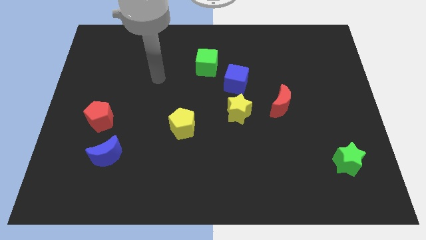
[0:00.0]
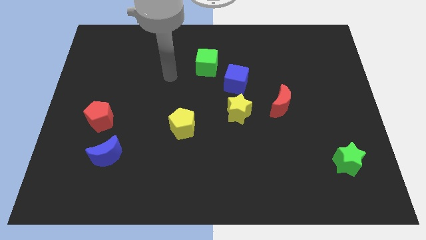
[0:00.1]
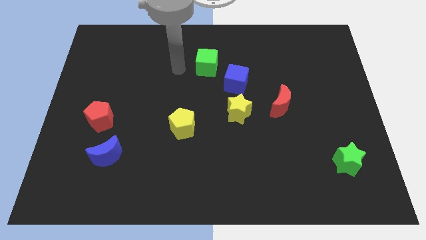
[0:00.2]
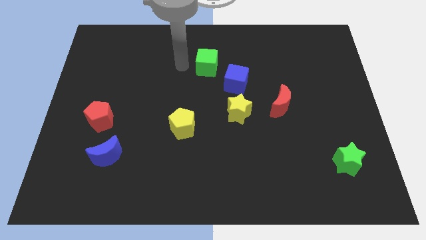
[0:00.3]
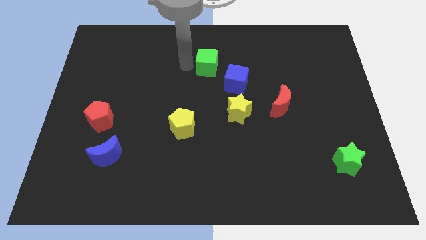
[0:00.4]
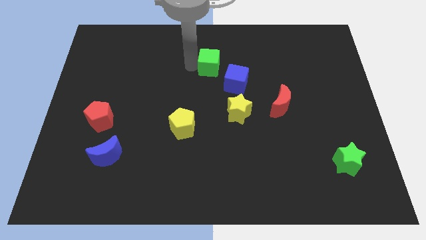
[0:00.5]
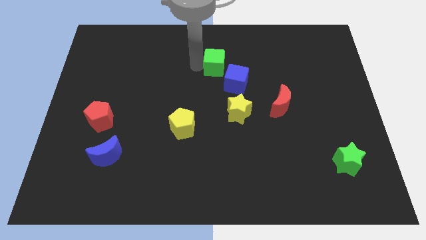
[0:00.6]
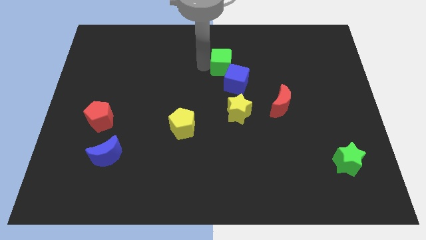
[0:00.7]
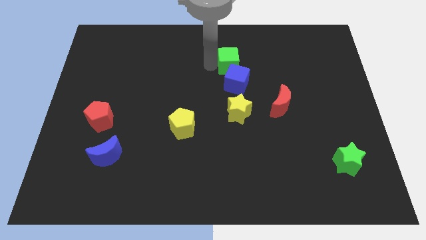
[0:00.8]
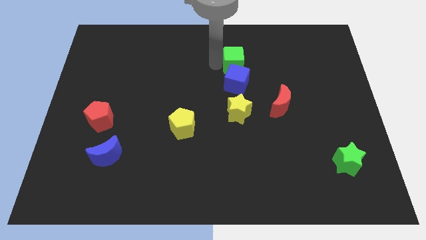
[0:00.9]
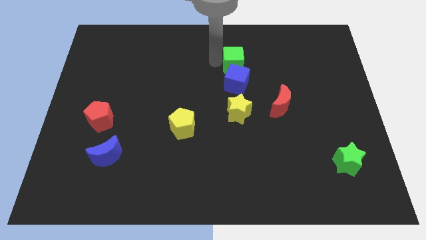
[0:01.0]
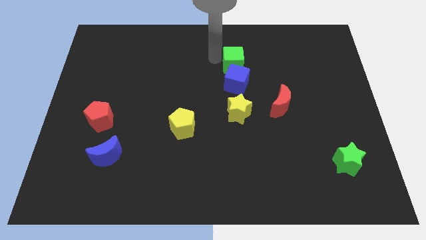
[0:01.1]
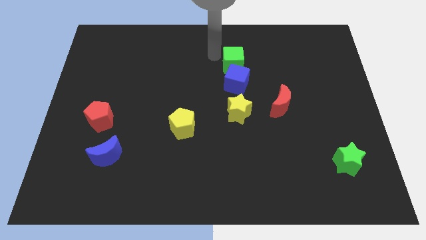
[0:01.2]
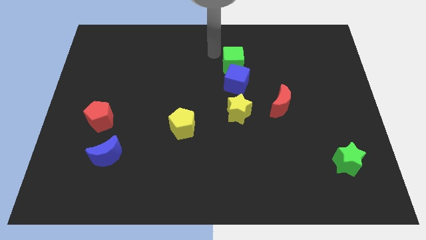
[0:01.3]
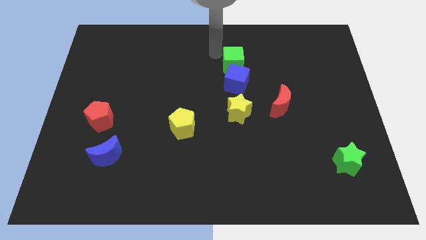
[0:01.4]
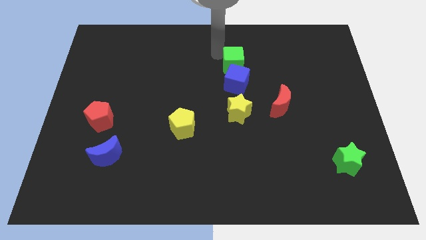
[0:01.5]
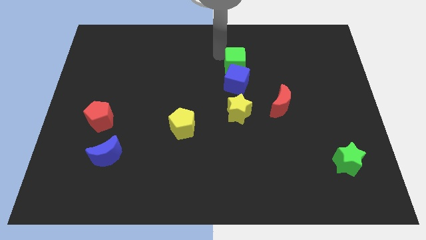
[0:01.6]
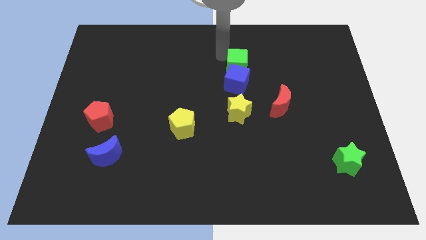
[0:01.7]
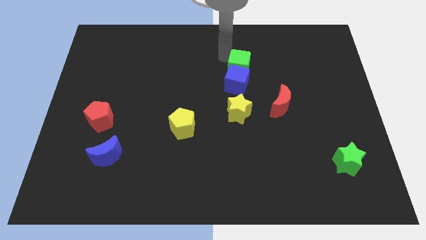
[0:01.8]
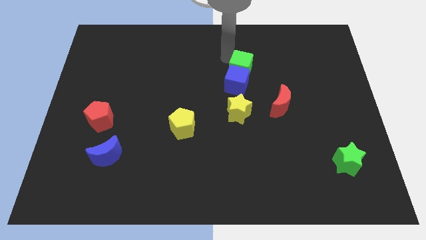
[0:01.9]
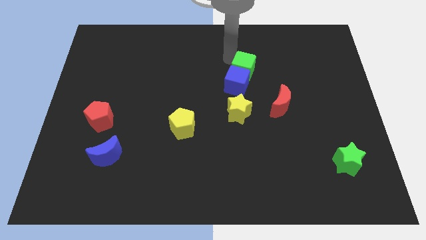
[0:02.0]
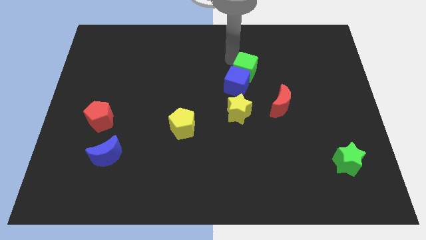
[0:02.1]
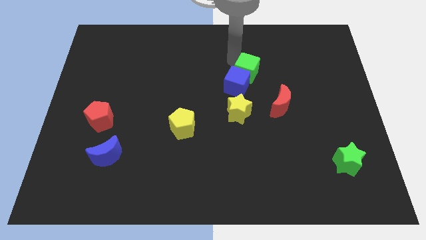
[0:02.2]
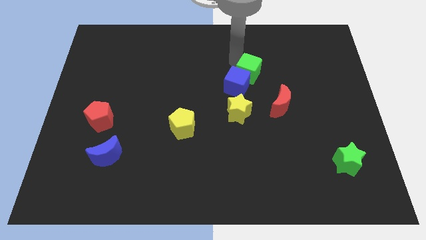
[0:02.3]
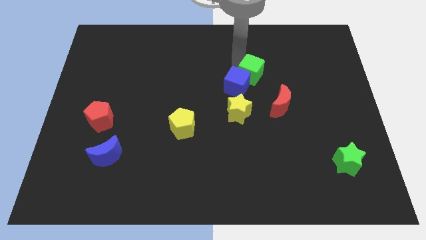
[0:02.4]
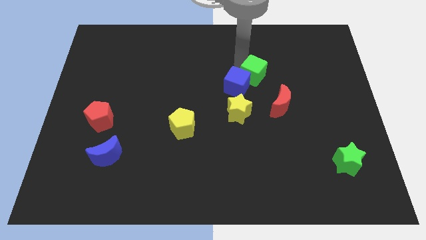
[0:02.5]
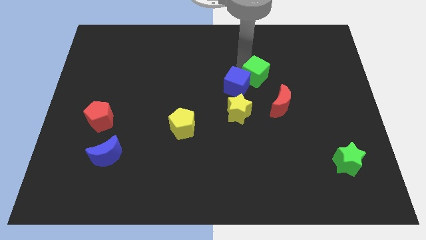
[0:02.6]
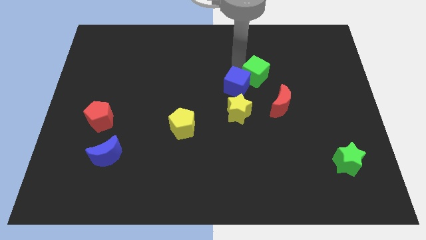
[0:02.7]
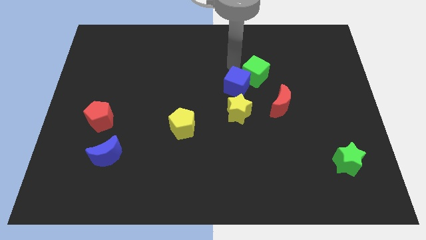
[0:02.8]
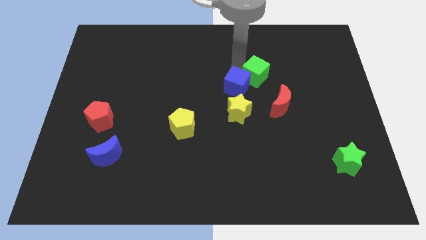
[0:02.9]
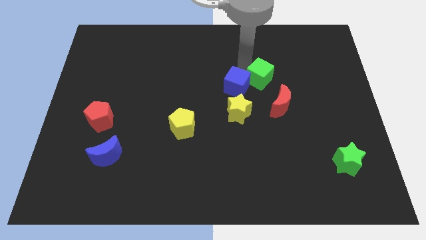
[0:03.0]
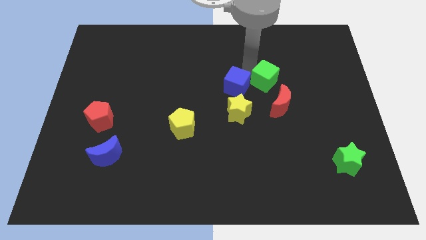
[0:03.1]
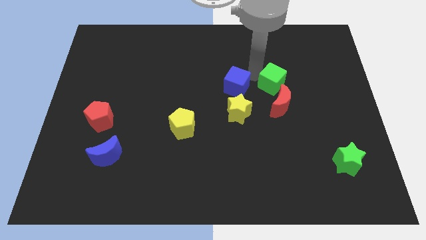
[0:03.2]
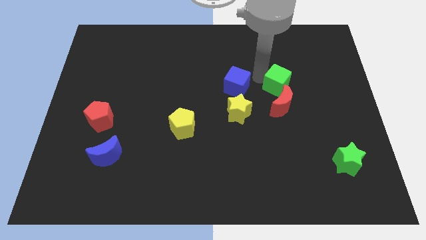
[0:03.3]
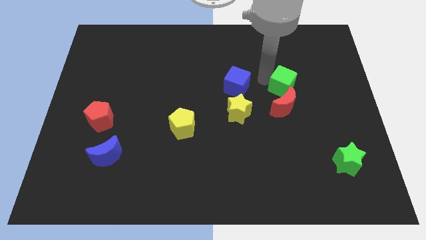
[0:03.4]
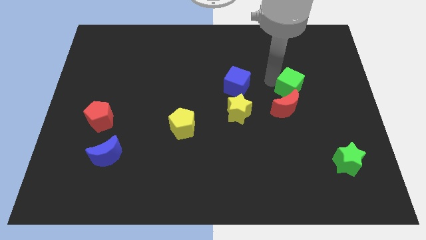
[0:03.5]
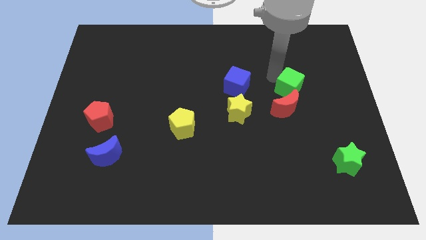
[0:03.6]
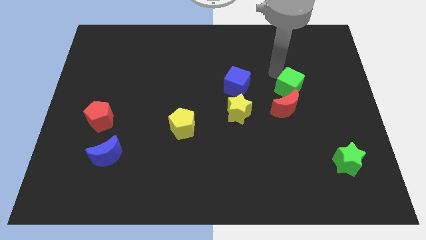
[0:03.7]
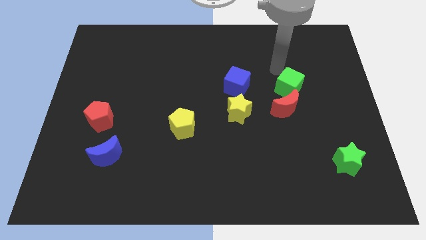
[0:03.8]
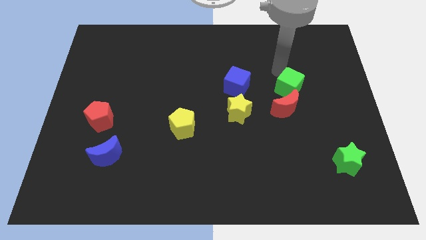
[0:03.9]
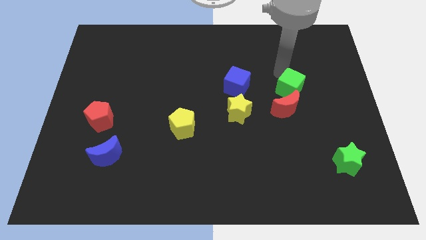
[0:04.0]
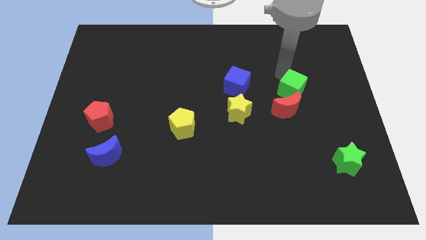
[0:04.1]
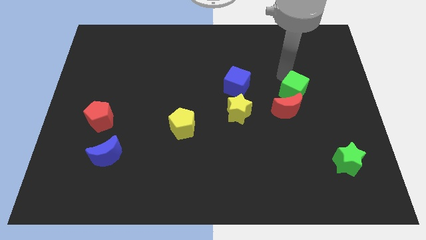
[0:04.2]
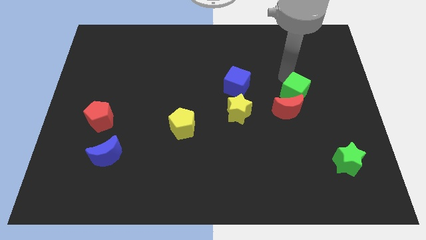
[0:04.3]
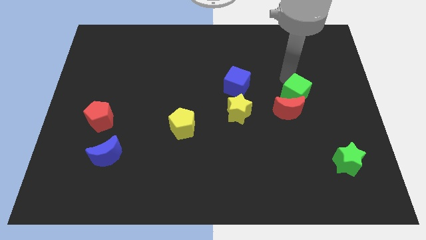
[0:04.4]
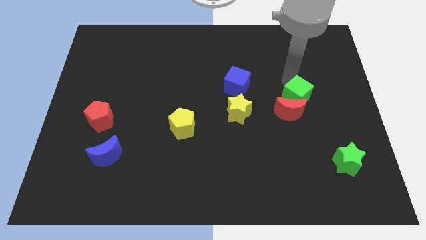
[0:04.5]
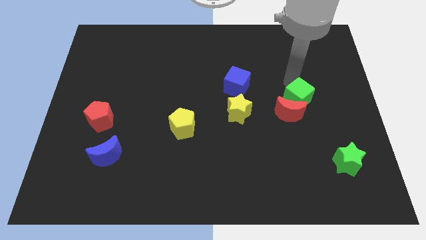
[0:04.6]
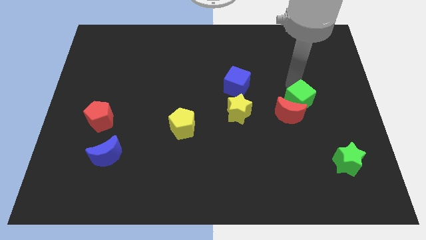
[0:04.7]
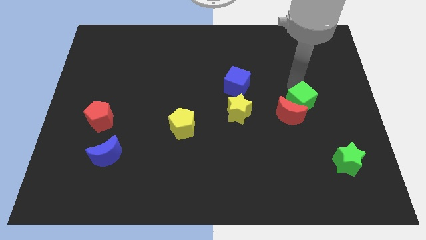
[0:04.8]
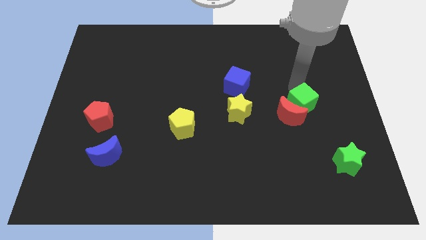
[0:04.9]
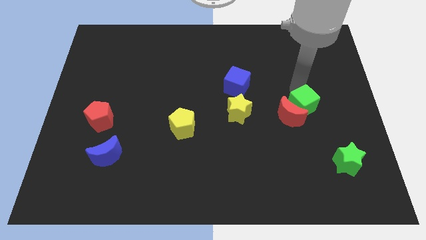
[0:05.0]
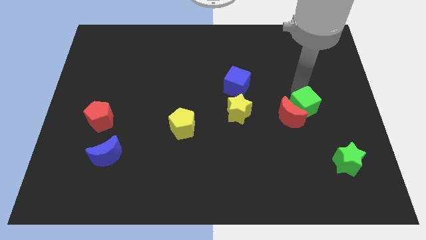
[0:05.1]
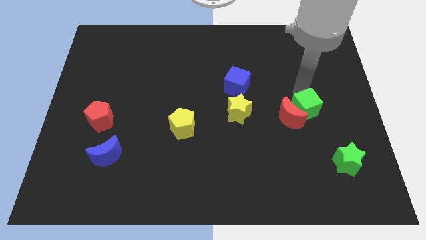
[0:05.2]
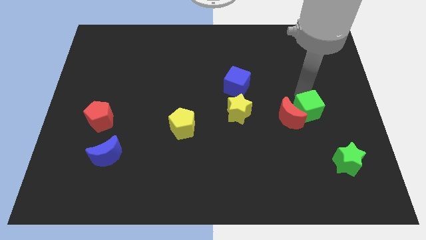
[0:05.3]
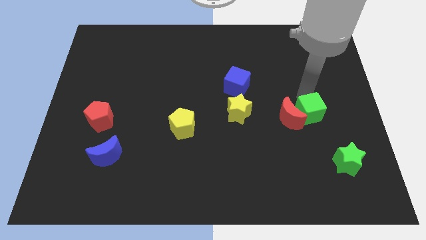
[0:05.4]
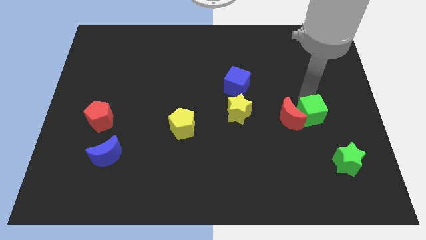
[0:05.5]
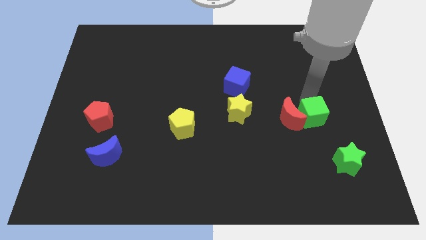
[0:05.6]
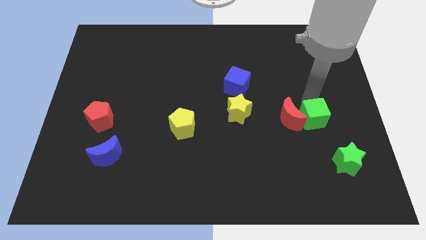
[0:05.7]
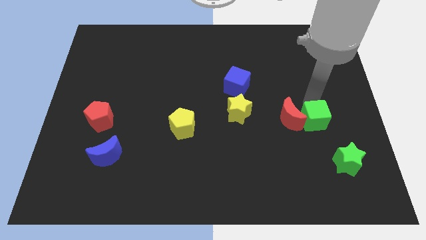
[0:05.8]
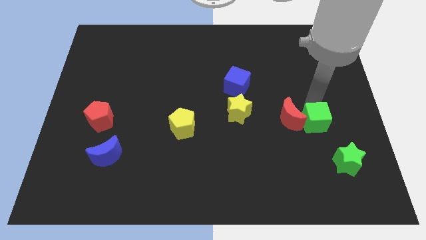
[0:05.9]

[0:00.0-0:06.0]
move the green cube to the top left side of the green star

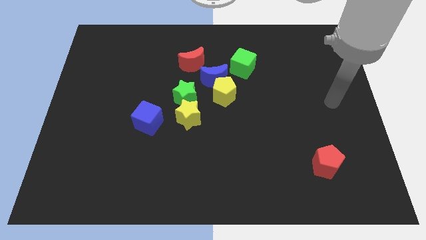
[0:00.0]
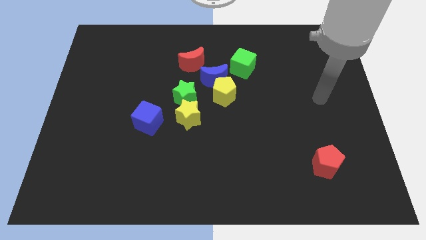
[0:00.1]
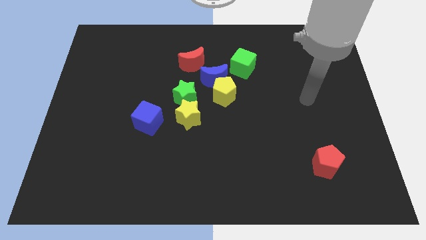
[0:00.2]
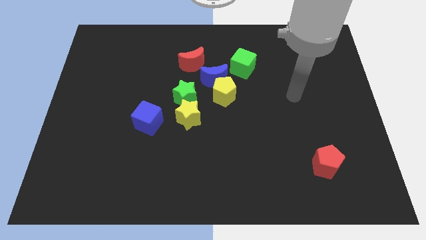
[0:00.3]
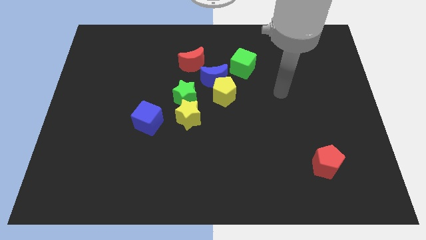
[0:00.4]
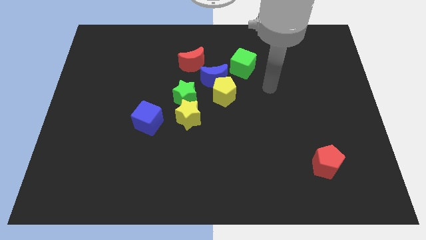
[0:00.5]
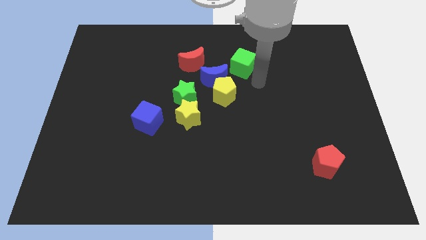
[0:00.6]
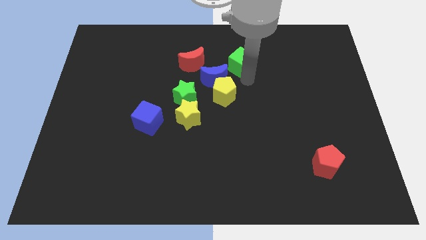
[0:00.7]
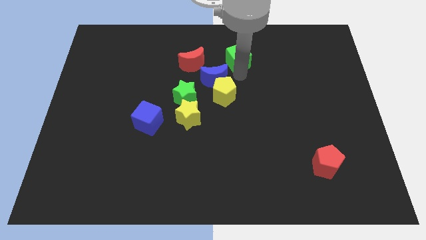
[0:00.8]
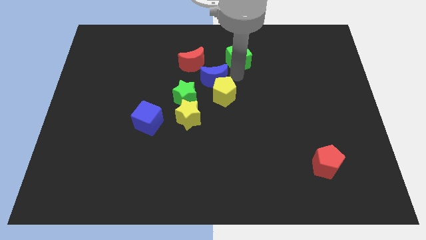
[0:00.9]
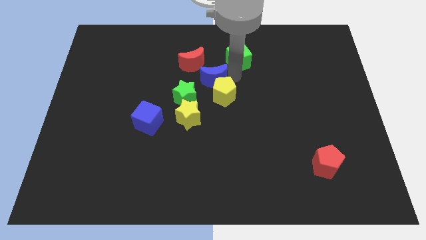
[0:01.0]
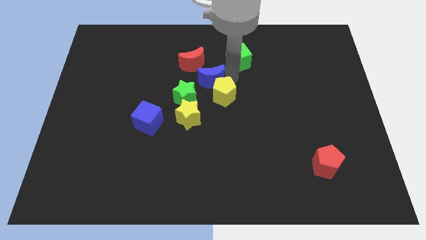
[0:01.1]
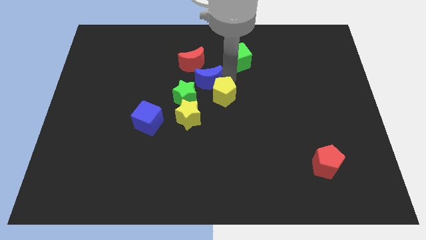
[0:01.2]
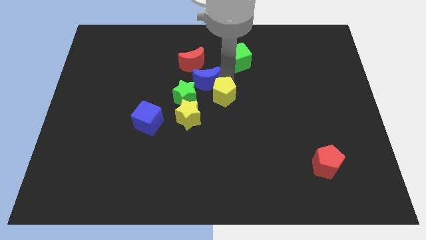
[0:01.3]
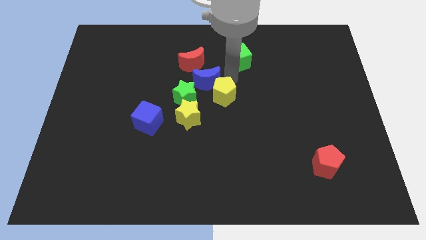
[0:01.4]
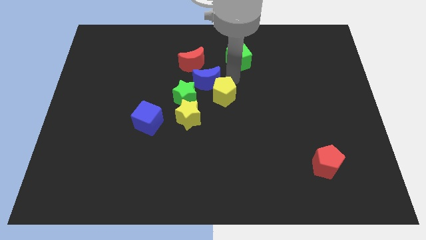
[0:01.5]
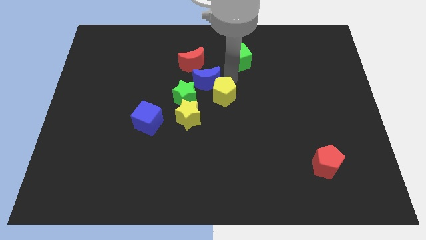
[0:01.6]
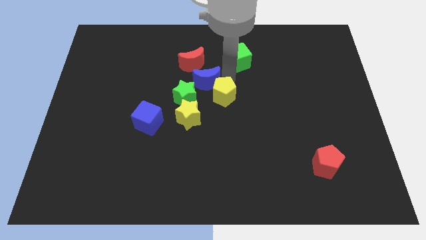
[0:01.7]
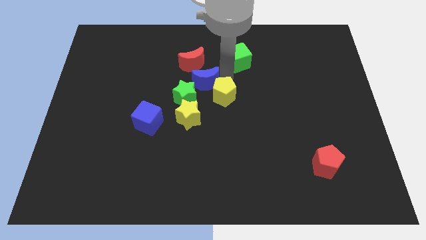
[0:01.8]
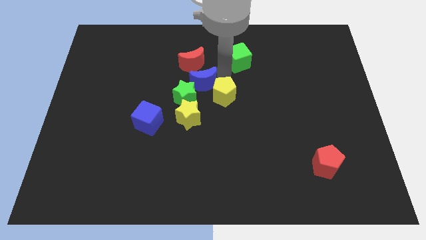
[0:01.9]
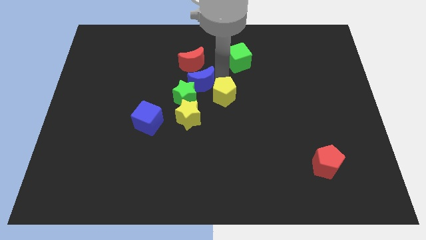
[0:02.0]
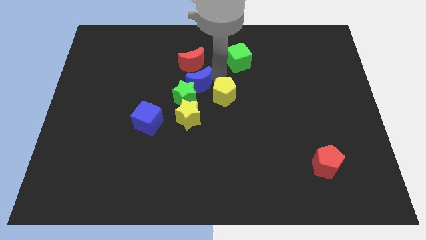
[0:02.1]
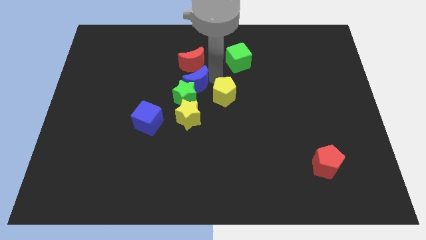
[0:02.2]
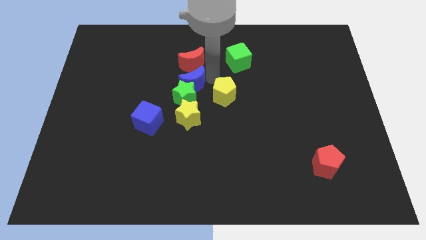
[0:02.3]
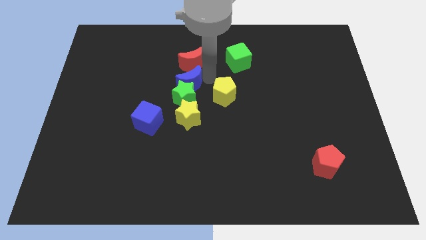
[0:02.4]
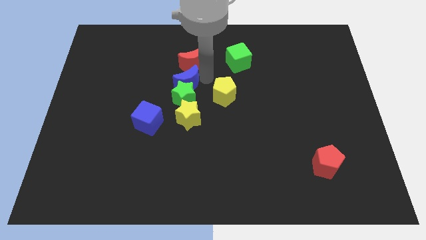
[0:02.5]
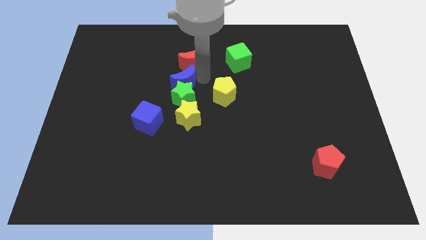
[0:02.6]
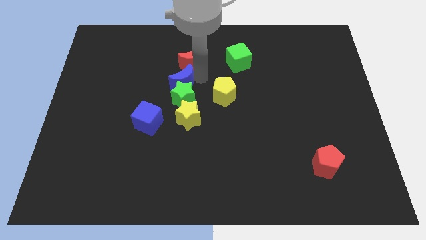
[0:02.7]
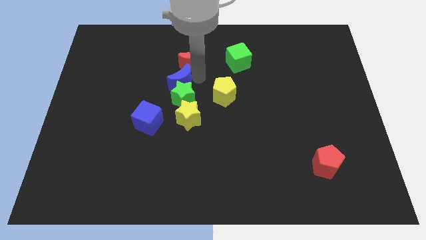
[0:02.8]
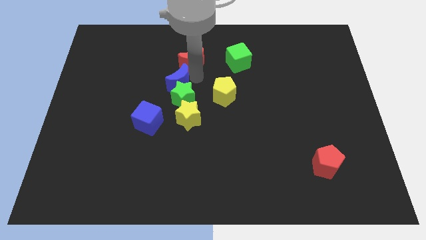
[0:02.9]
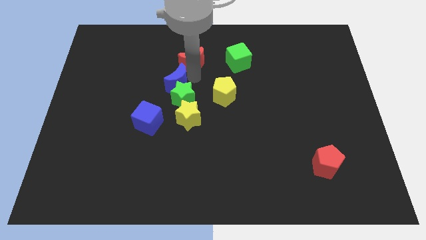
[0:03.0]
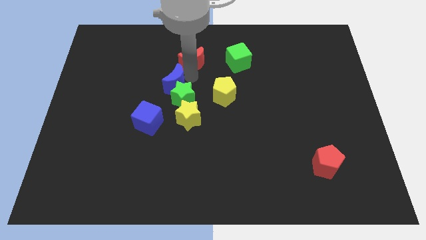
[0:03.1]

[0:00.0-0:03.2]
put the blue moon to the top left side of the yellow star
